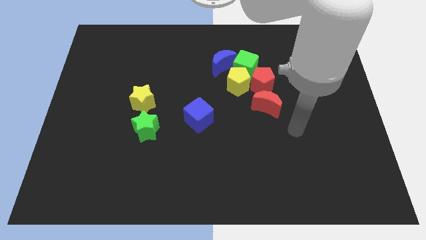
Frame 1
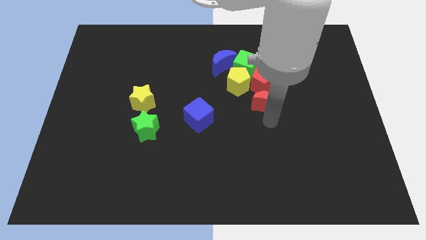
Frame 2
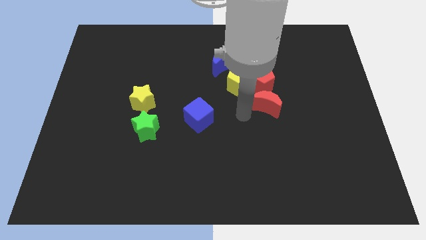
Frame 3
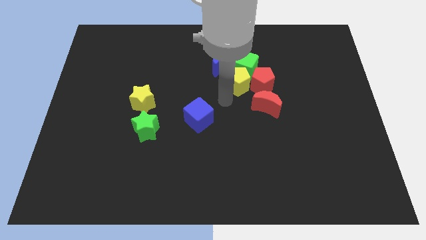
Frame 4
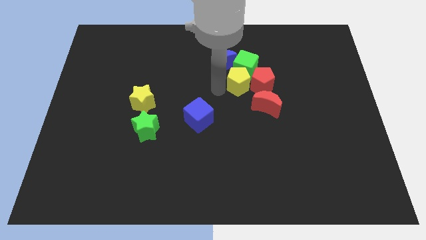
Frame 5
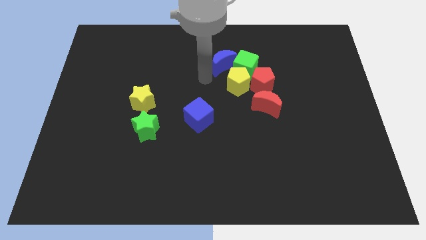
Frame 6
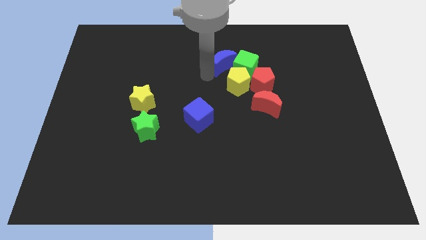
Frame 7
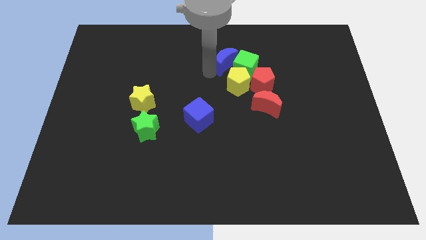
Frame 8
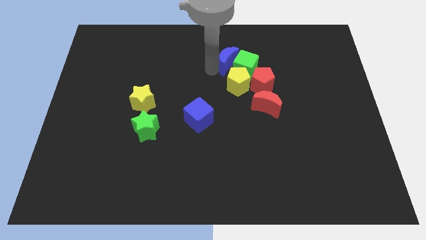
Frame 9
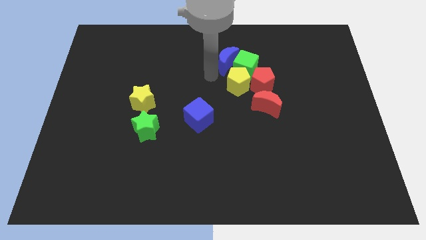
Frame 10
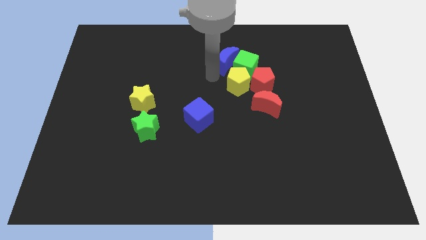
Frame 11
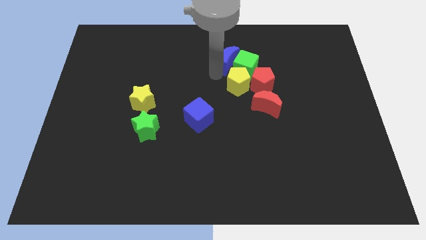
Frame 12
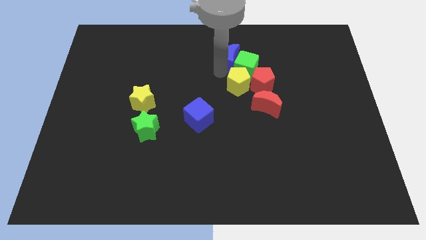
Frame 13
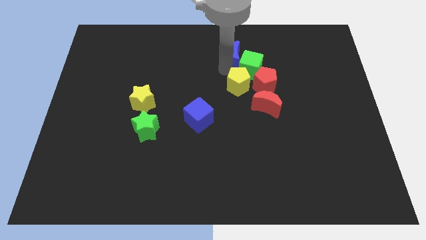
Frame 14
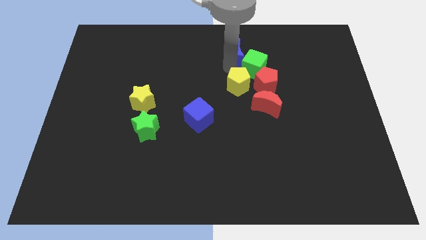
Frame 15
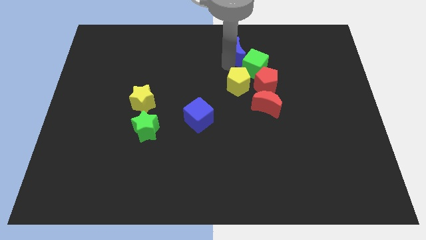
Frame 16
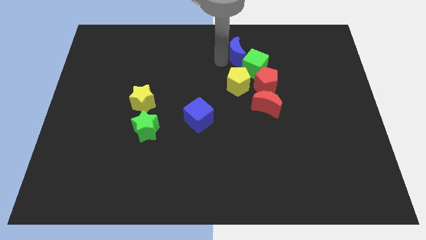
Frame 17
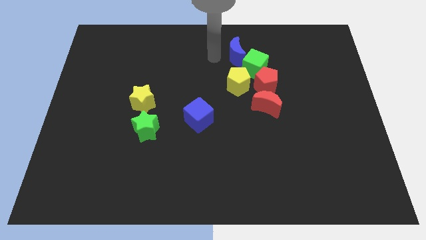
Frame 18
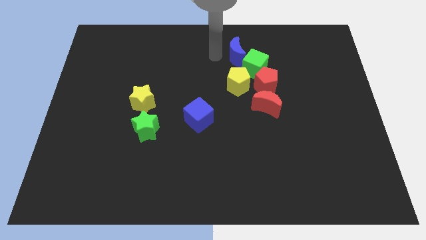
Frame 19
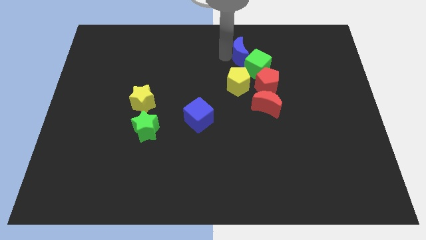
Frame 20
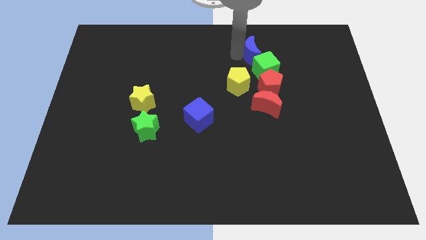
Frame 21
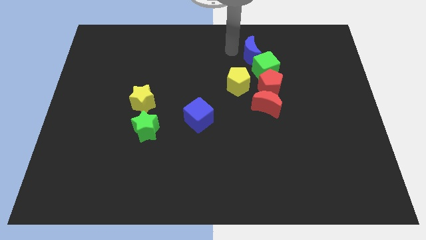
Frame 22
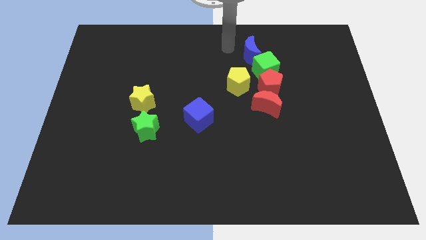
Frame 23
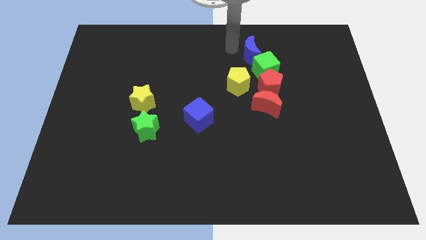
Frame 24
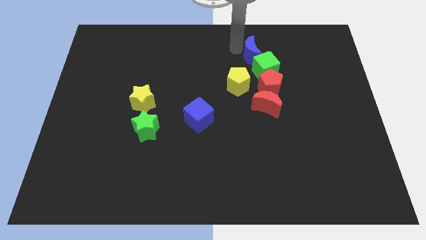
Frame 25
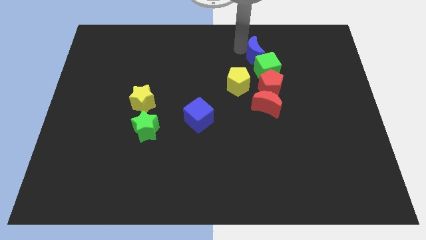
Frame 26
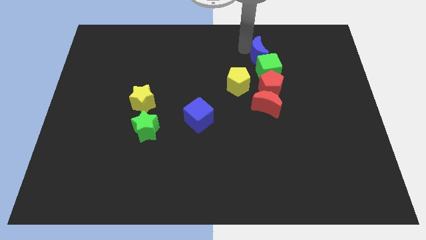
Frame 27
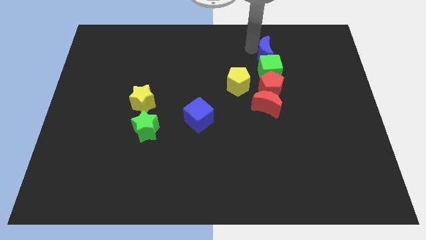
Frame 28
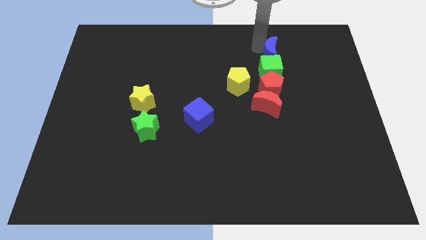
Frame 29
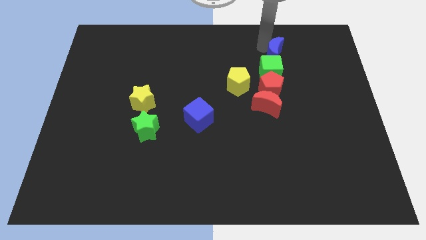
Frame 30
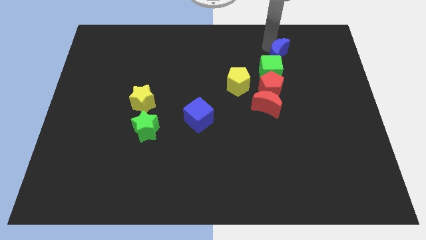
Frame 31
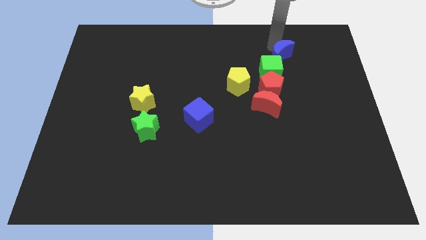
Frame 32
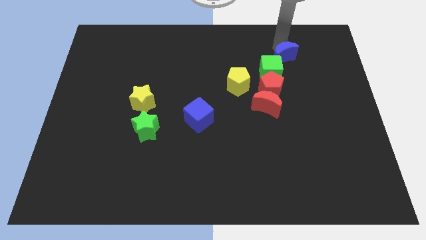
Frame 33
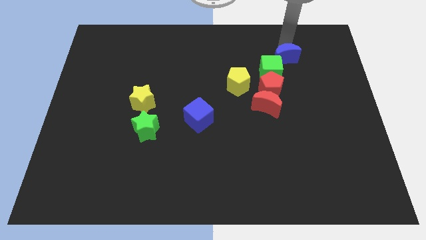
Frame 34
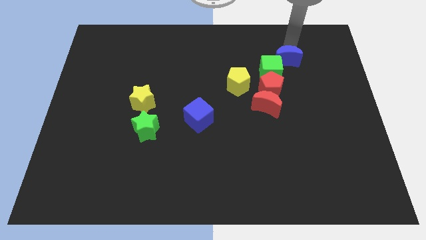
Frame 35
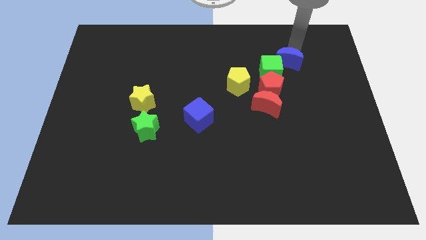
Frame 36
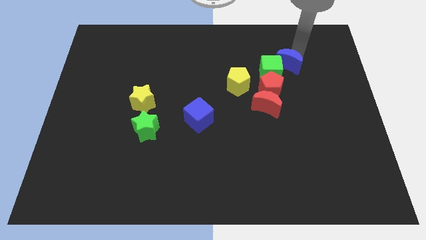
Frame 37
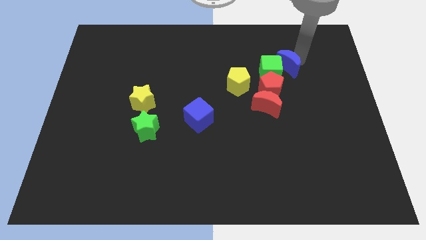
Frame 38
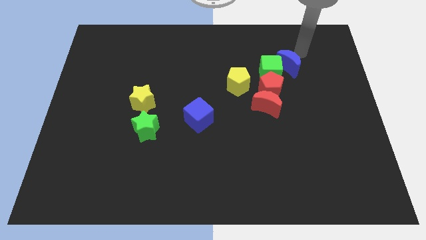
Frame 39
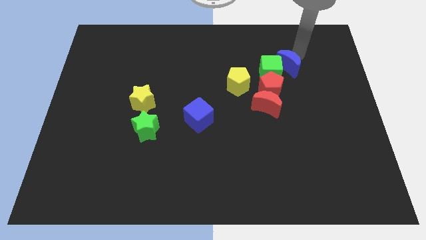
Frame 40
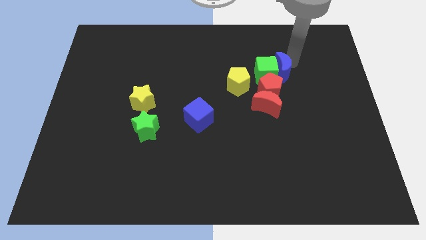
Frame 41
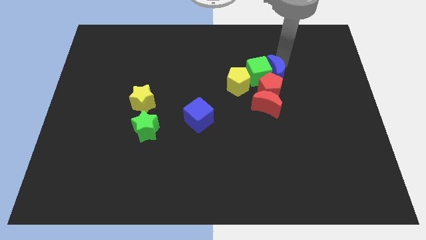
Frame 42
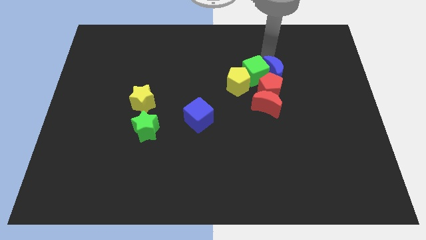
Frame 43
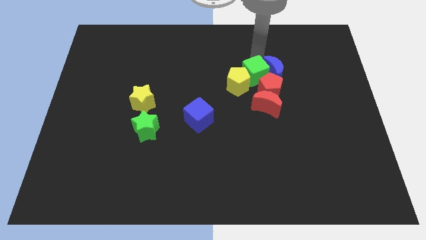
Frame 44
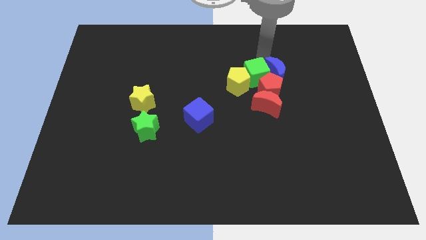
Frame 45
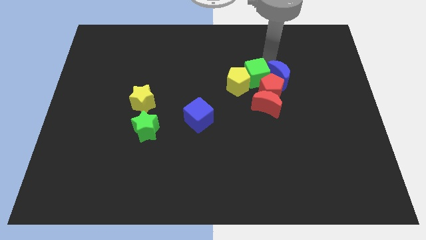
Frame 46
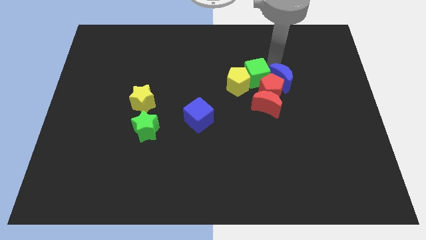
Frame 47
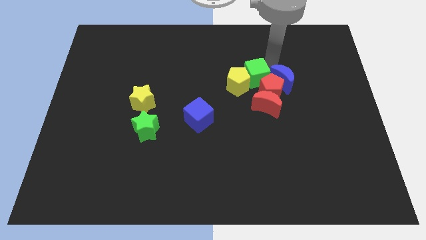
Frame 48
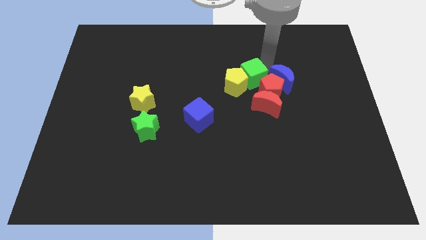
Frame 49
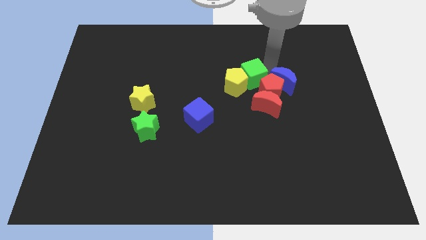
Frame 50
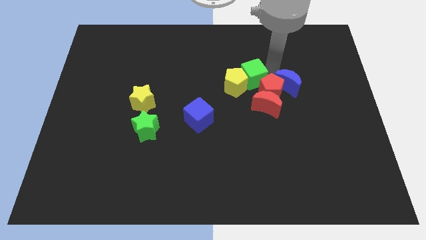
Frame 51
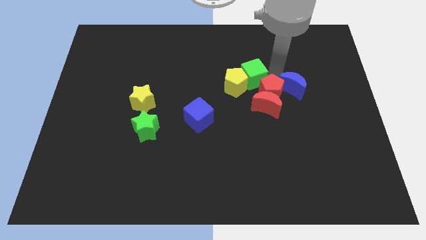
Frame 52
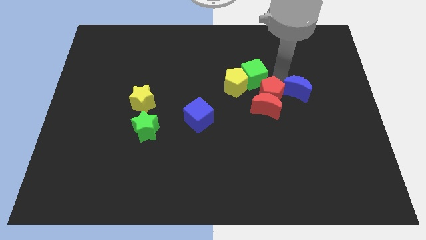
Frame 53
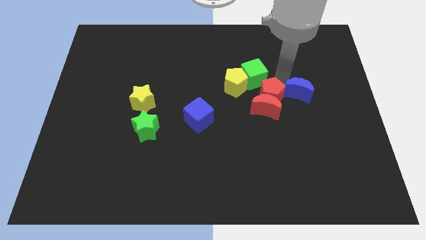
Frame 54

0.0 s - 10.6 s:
put the blue moon to the right side of the red moon

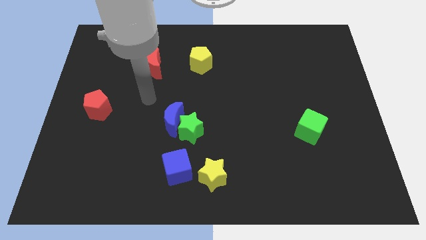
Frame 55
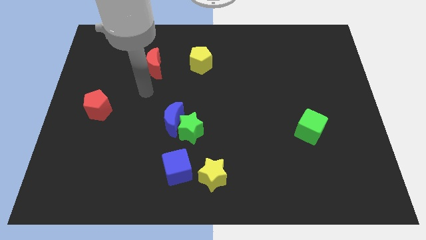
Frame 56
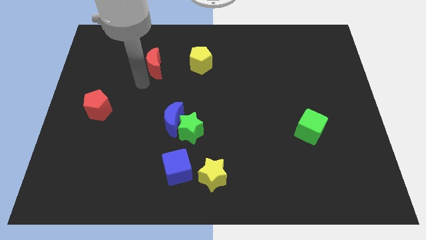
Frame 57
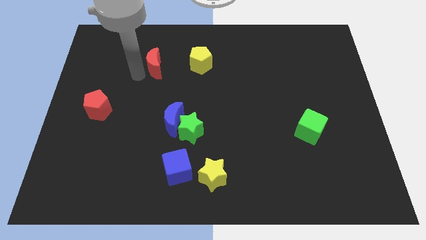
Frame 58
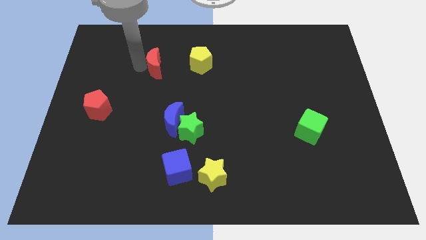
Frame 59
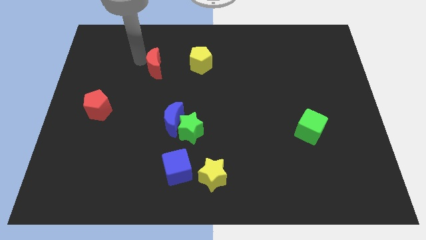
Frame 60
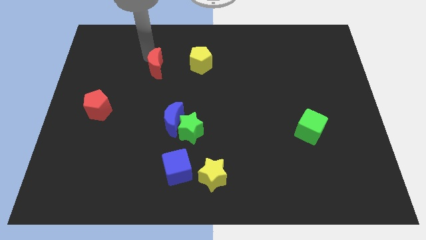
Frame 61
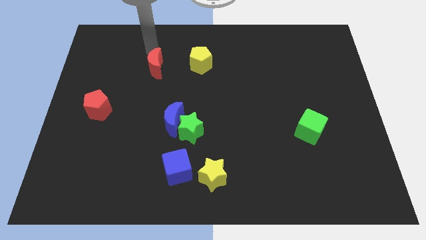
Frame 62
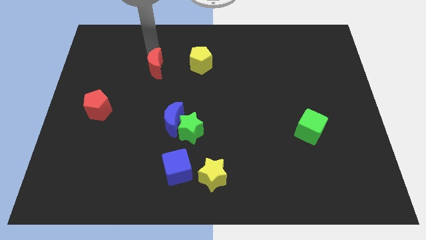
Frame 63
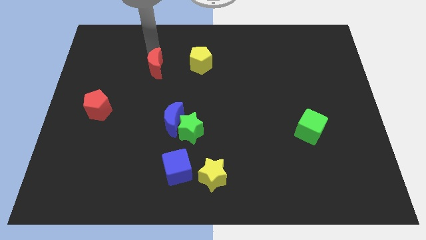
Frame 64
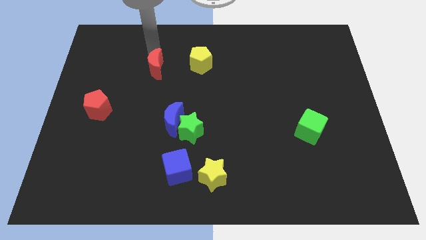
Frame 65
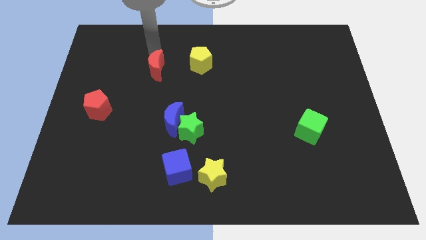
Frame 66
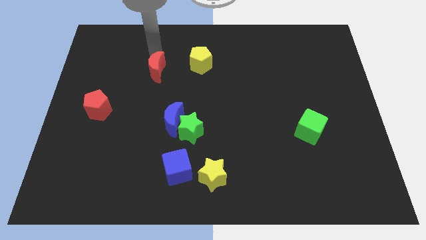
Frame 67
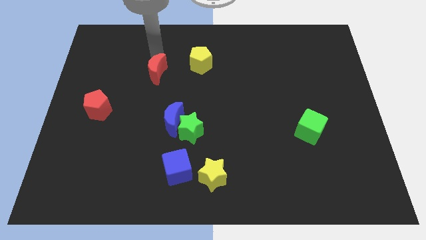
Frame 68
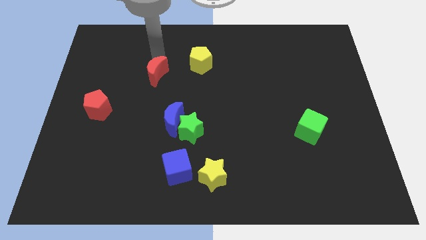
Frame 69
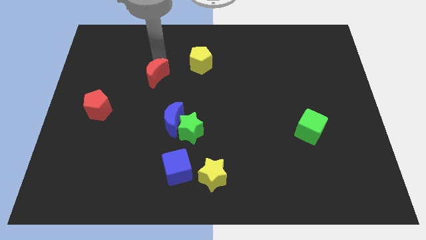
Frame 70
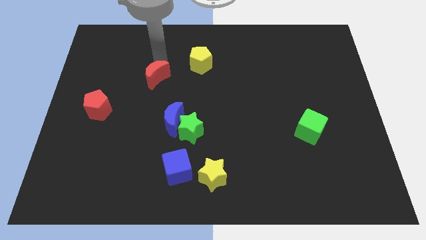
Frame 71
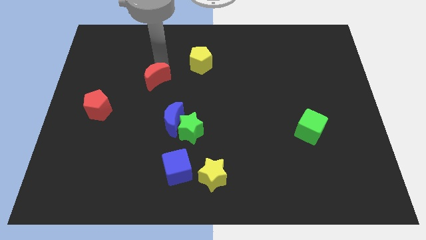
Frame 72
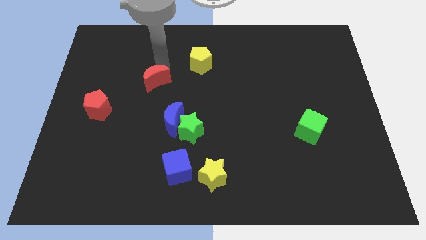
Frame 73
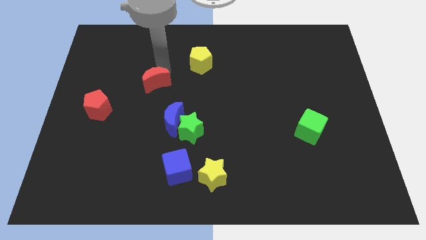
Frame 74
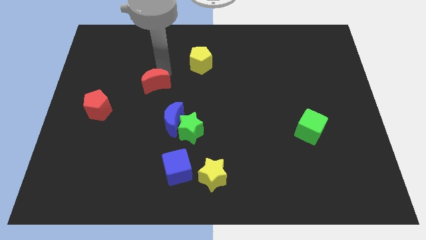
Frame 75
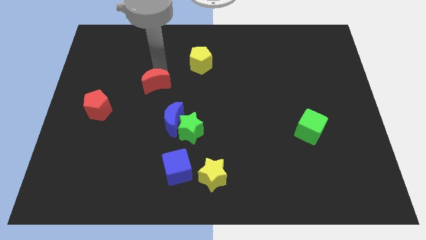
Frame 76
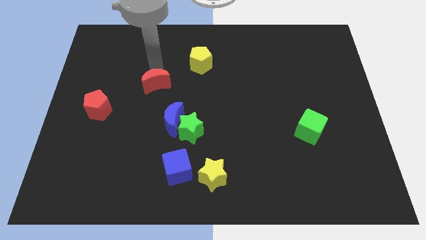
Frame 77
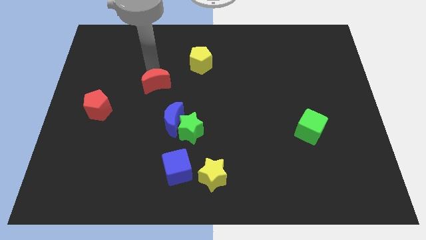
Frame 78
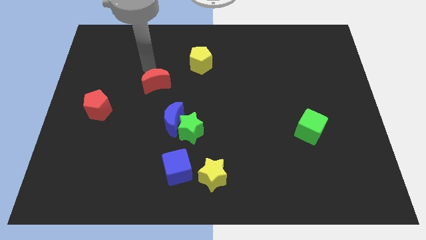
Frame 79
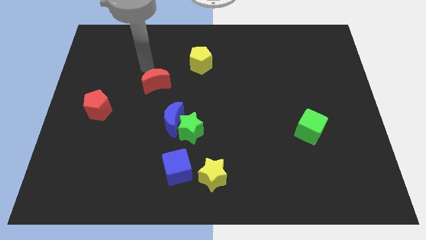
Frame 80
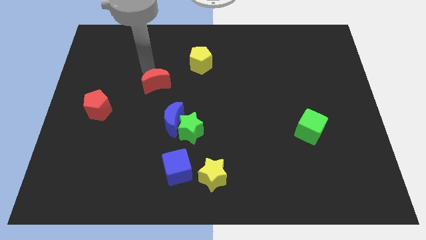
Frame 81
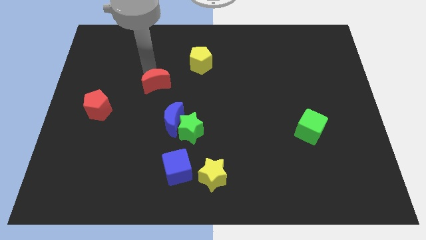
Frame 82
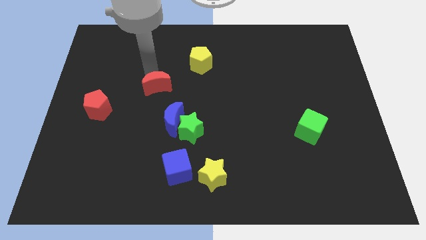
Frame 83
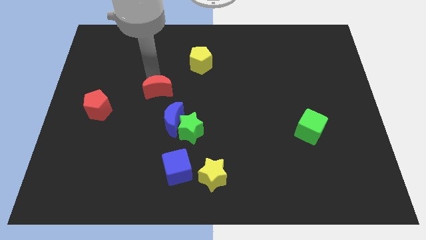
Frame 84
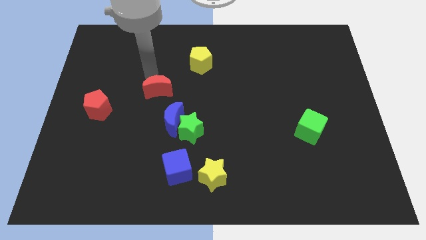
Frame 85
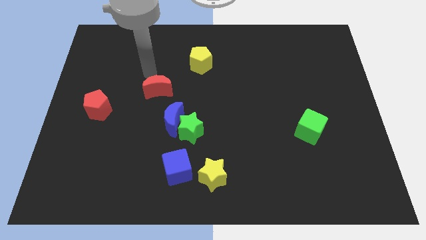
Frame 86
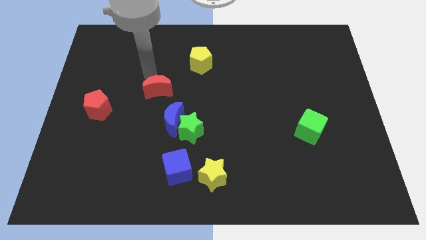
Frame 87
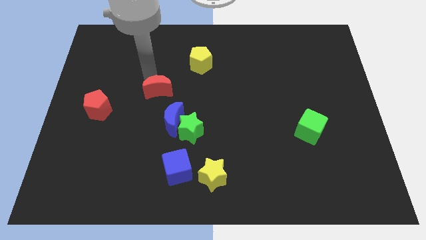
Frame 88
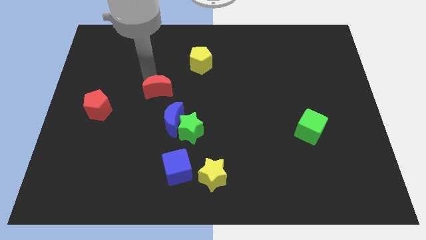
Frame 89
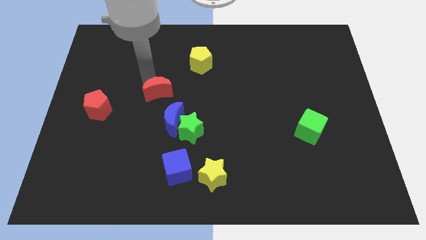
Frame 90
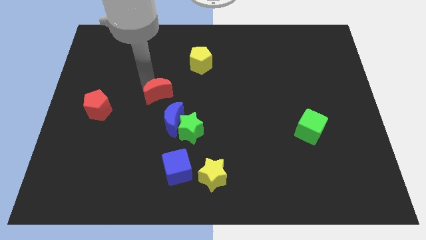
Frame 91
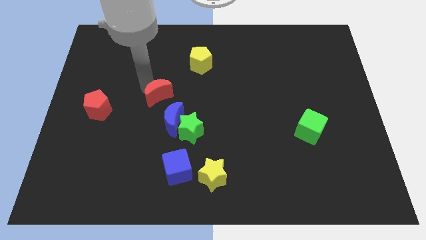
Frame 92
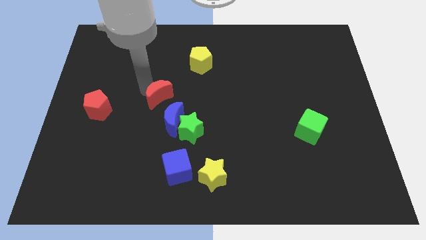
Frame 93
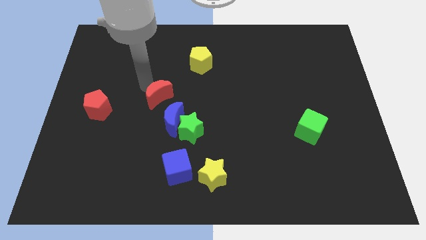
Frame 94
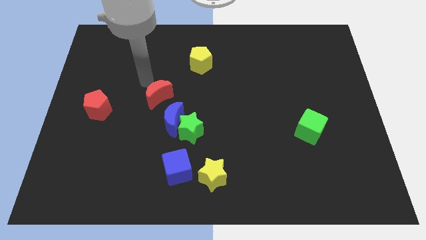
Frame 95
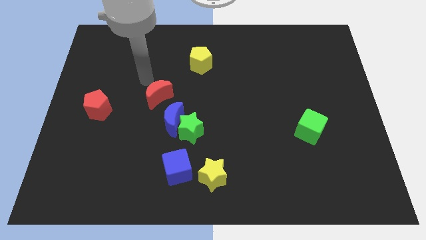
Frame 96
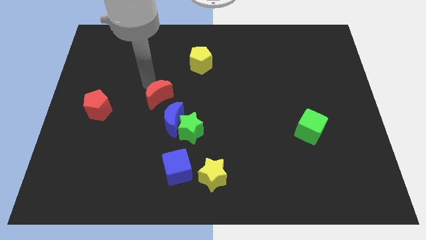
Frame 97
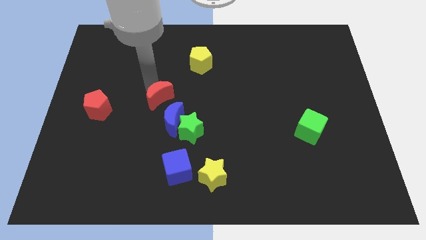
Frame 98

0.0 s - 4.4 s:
move the red moon to the top left of the green star
